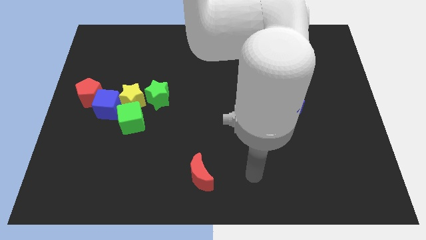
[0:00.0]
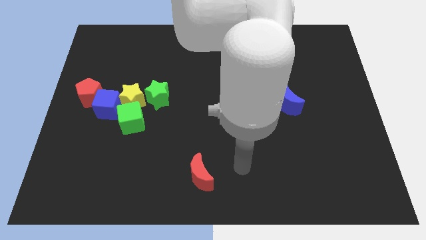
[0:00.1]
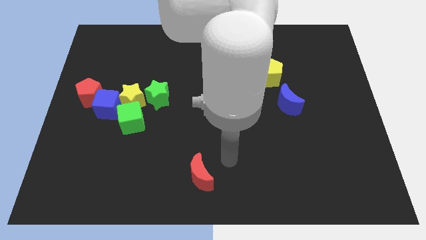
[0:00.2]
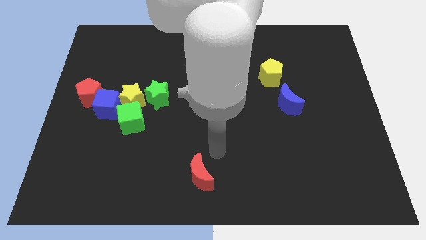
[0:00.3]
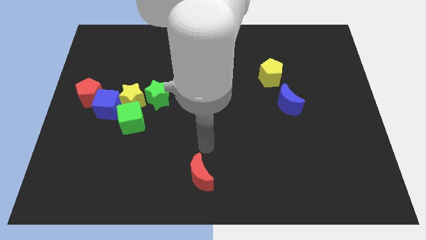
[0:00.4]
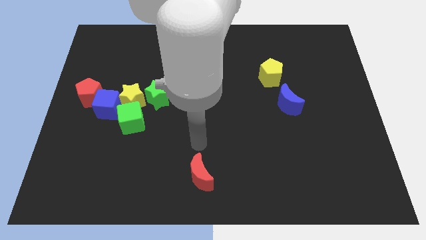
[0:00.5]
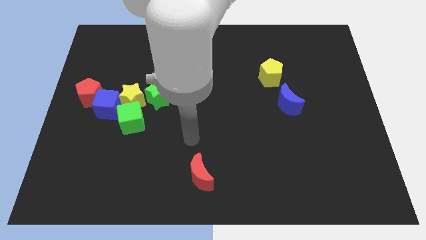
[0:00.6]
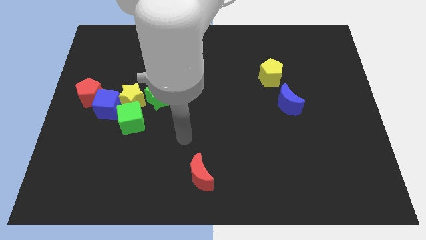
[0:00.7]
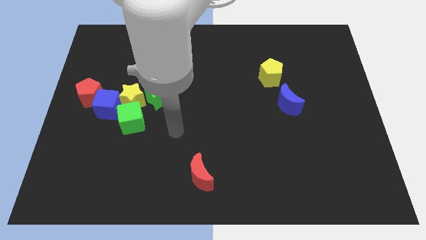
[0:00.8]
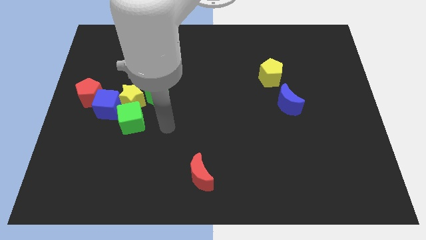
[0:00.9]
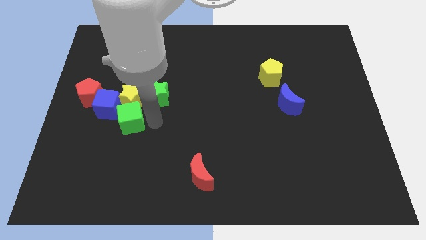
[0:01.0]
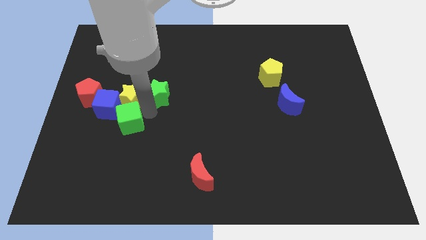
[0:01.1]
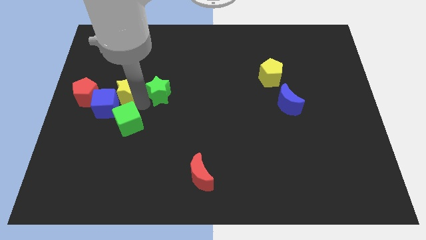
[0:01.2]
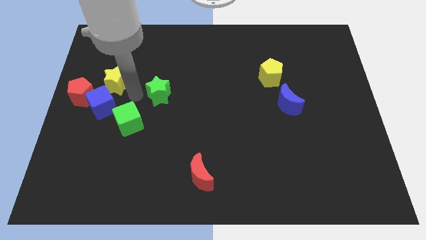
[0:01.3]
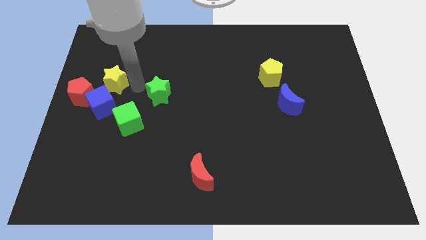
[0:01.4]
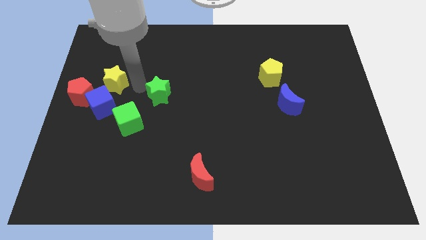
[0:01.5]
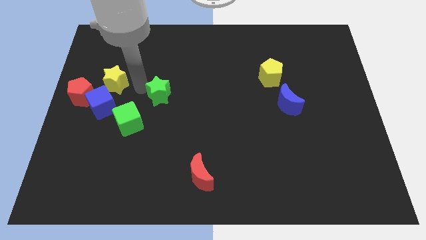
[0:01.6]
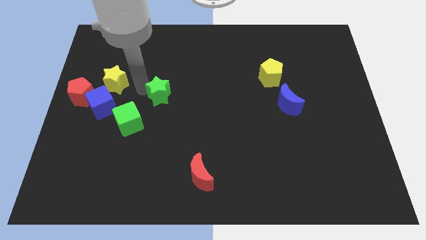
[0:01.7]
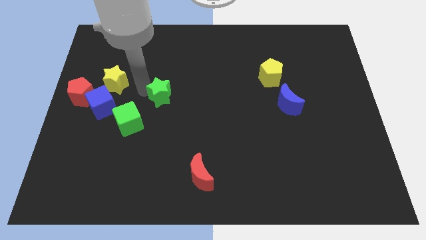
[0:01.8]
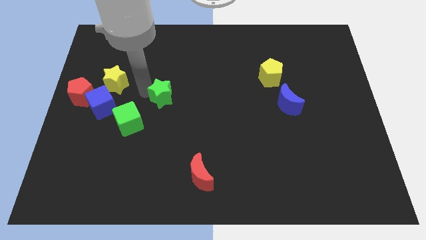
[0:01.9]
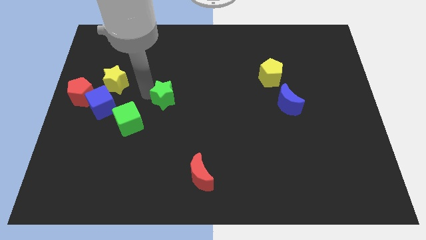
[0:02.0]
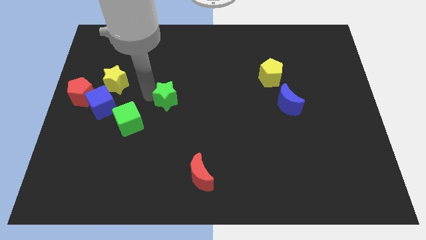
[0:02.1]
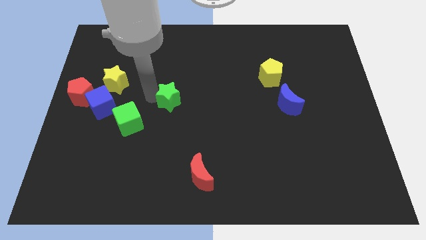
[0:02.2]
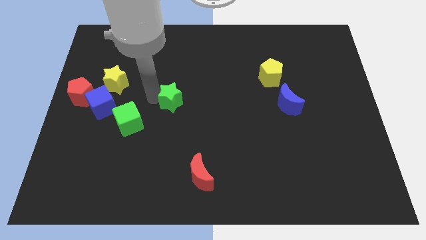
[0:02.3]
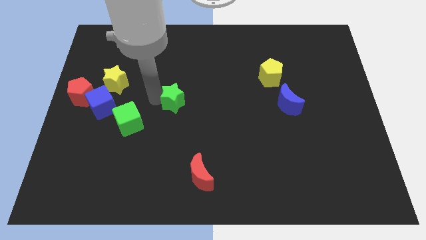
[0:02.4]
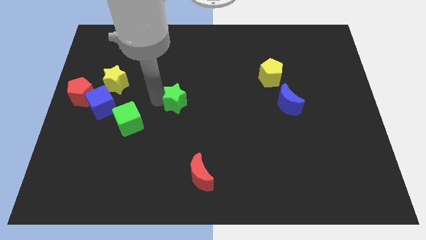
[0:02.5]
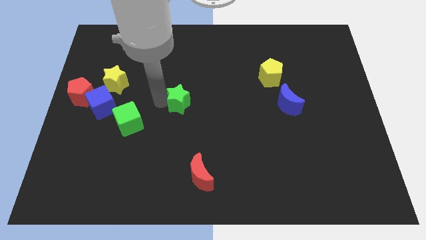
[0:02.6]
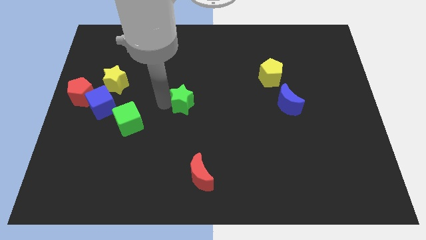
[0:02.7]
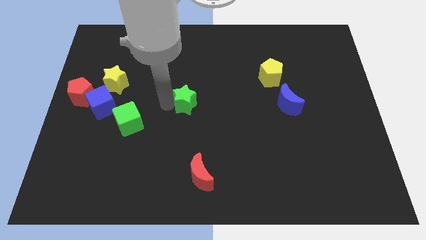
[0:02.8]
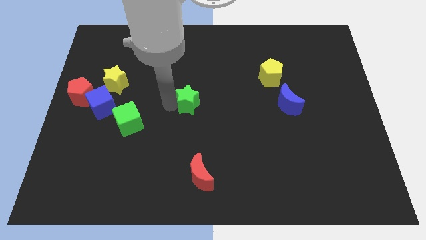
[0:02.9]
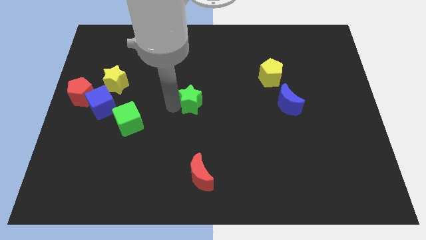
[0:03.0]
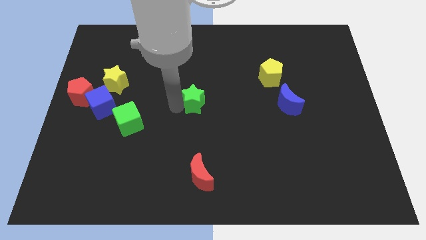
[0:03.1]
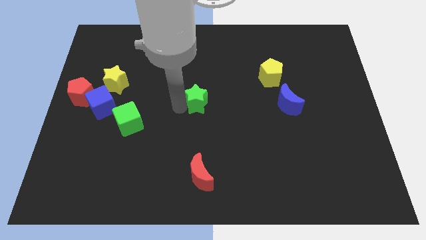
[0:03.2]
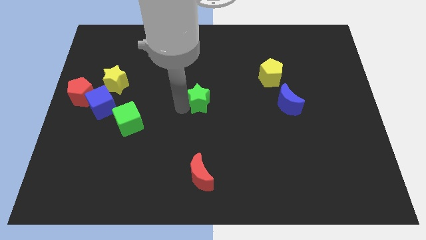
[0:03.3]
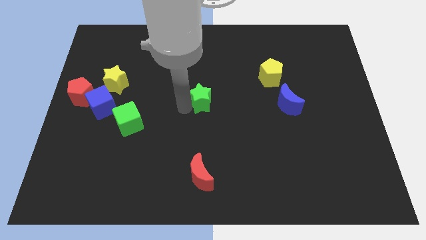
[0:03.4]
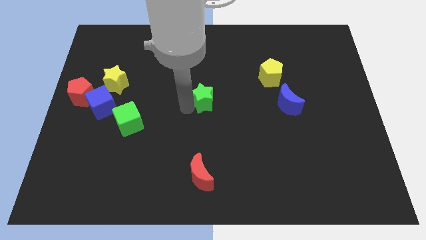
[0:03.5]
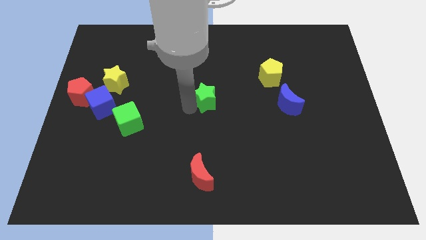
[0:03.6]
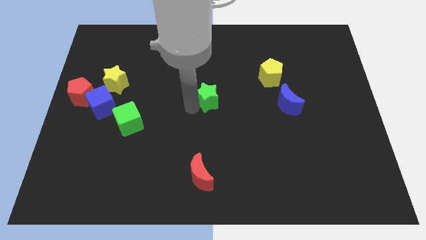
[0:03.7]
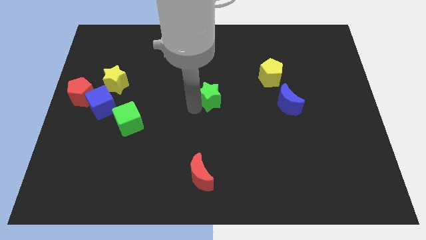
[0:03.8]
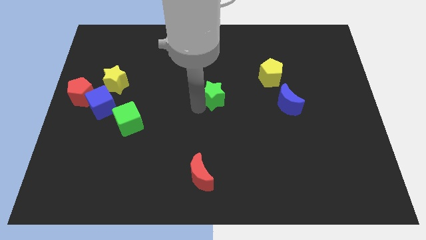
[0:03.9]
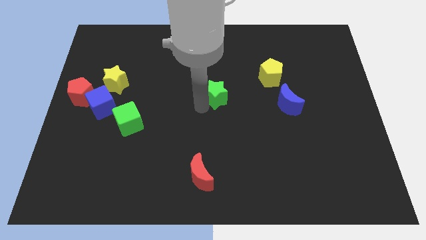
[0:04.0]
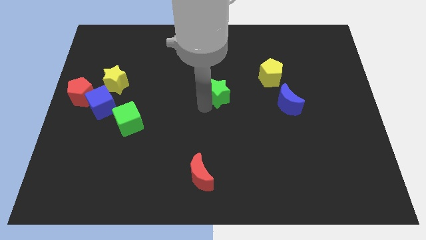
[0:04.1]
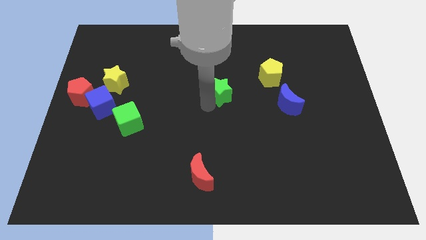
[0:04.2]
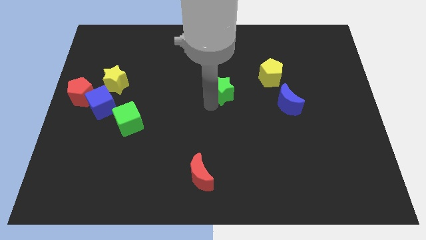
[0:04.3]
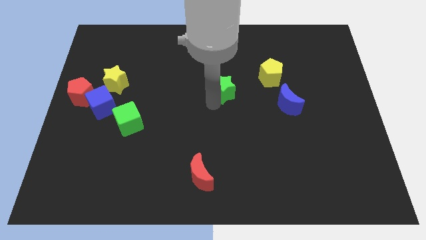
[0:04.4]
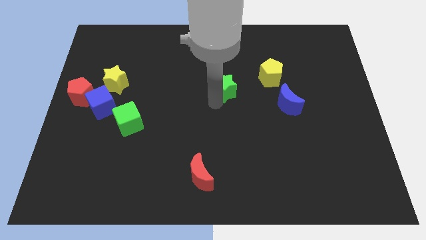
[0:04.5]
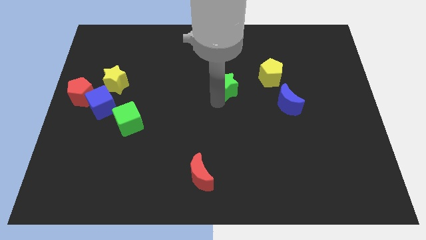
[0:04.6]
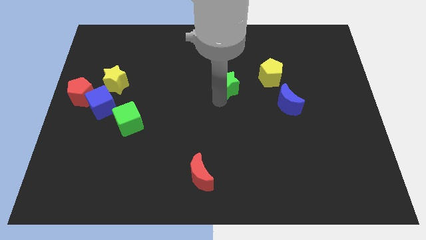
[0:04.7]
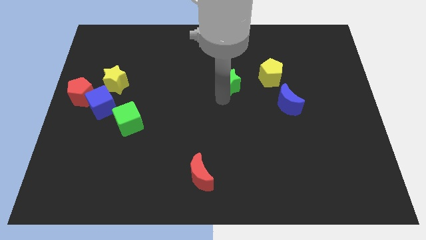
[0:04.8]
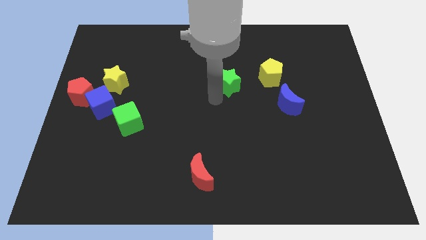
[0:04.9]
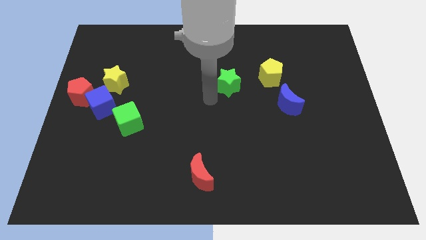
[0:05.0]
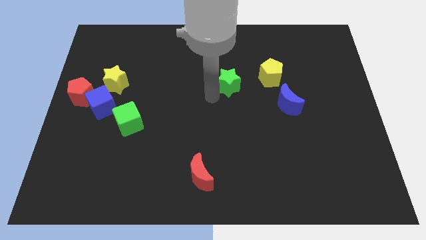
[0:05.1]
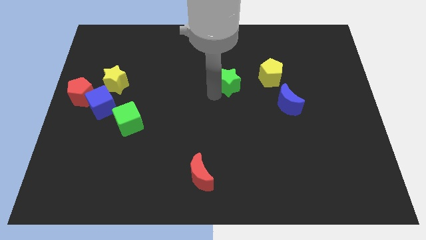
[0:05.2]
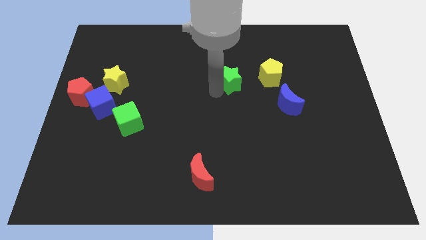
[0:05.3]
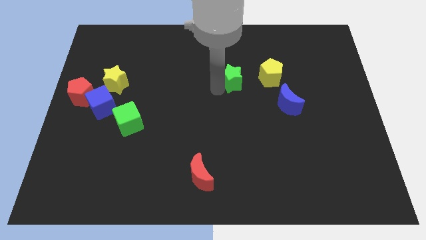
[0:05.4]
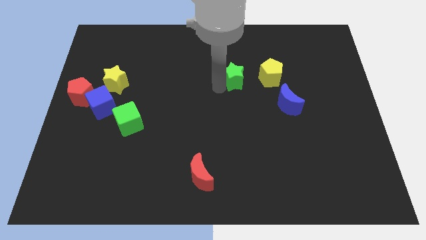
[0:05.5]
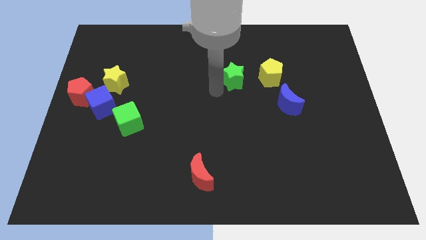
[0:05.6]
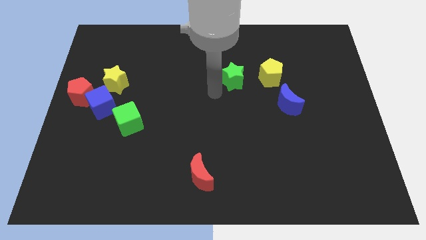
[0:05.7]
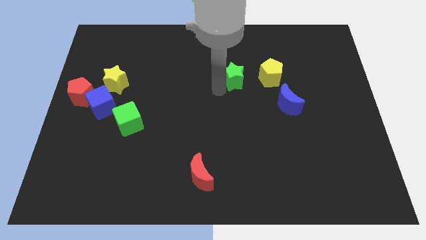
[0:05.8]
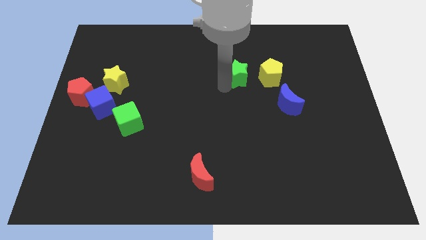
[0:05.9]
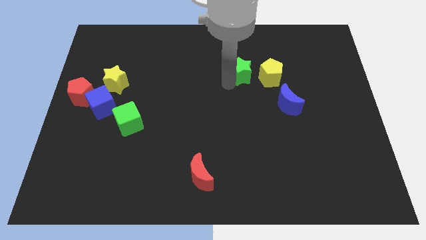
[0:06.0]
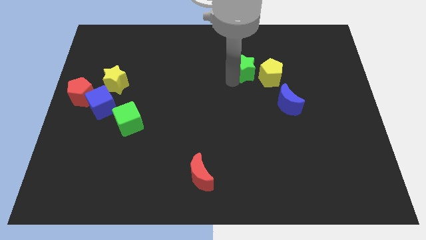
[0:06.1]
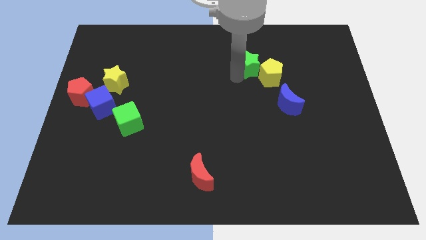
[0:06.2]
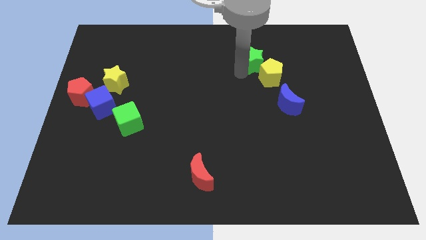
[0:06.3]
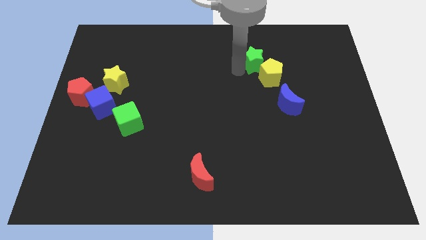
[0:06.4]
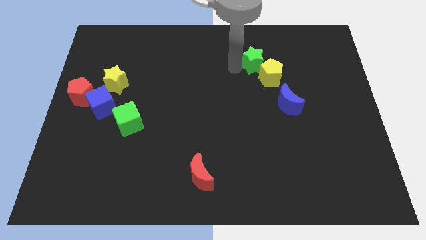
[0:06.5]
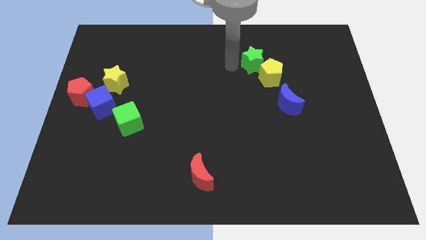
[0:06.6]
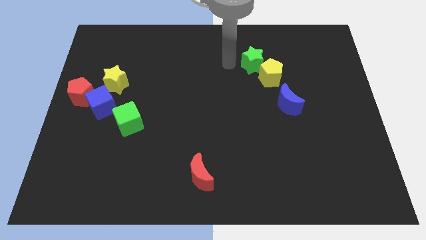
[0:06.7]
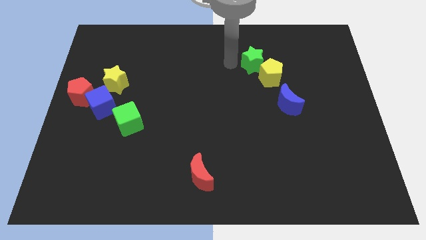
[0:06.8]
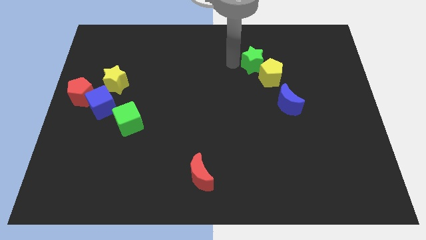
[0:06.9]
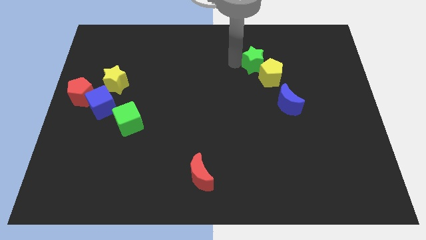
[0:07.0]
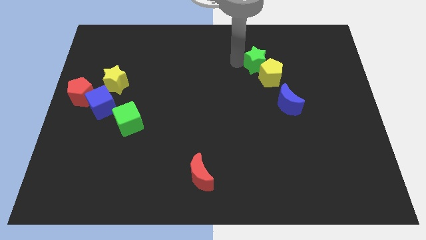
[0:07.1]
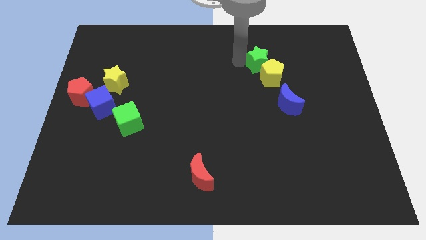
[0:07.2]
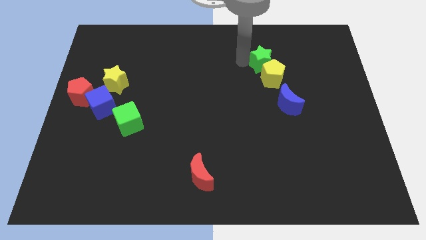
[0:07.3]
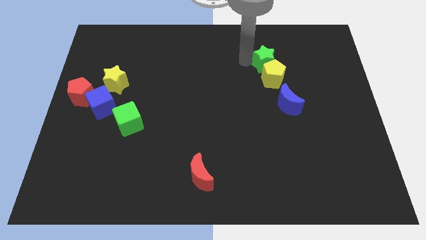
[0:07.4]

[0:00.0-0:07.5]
put the green star to the top right side of the yellow pentagon

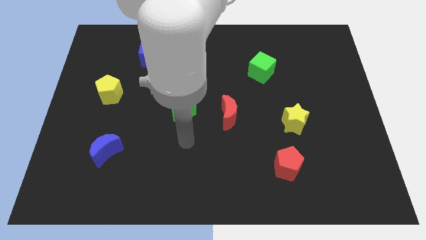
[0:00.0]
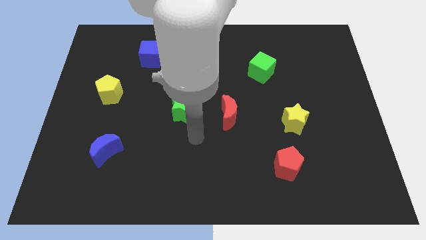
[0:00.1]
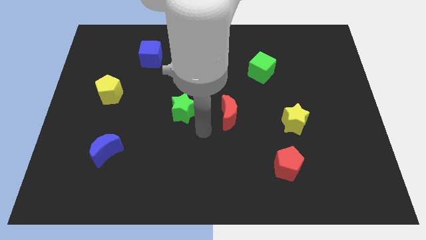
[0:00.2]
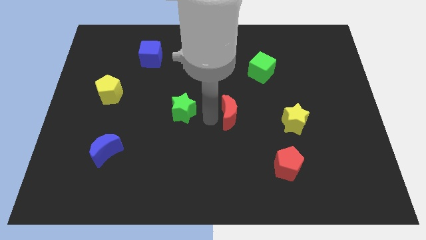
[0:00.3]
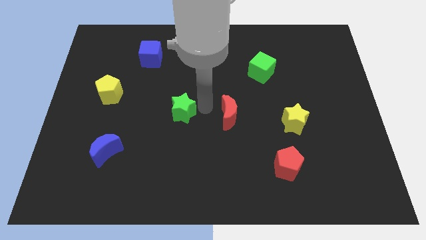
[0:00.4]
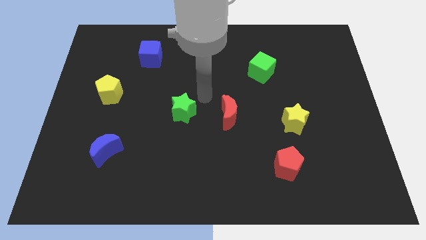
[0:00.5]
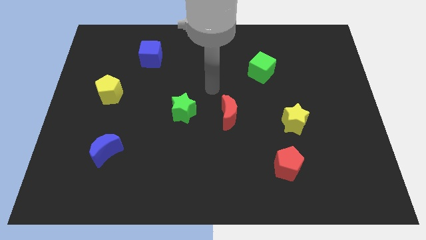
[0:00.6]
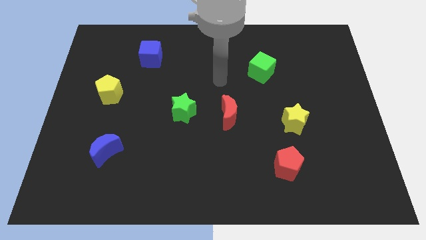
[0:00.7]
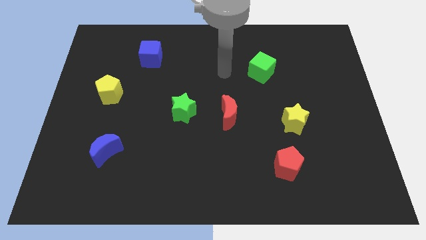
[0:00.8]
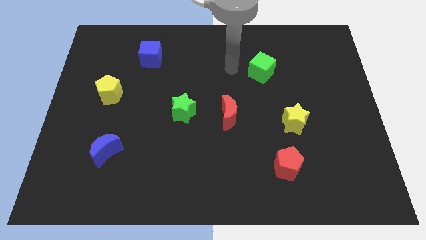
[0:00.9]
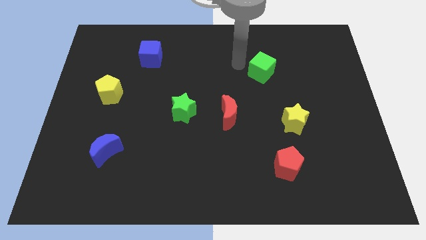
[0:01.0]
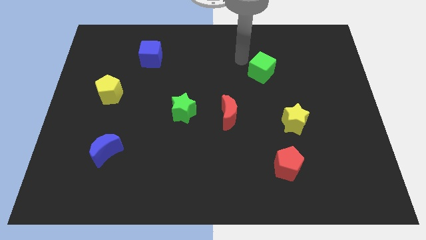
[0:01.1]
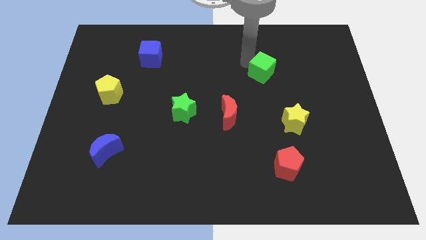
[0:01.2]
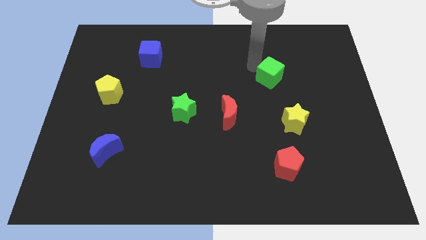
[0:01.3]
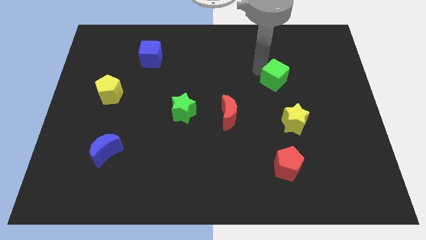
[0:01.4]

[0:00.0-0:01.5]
put the green cube above the yellow star
